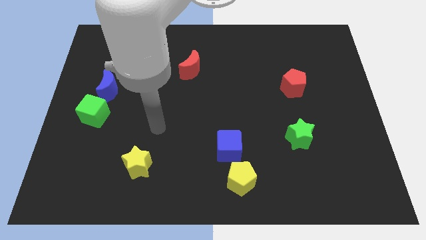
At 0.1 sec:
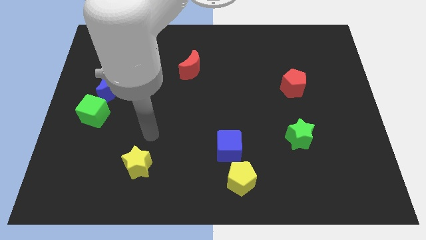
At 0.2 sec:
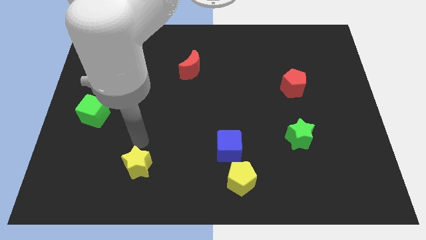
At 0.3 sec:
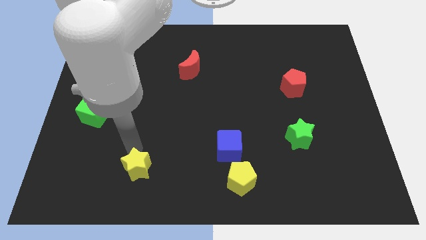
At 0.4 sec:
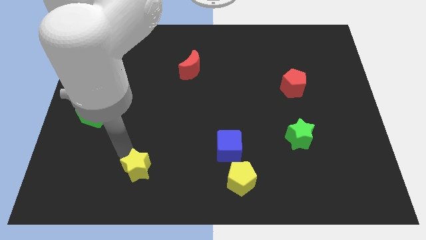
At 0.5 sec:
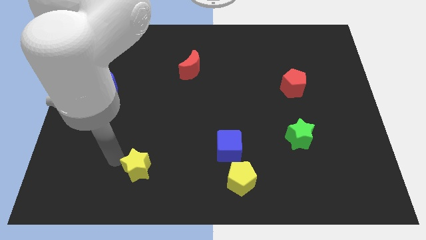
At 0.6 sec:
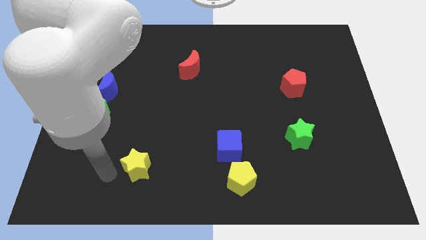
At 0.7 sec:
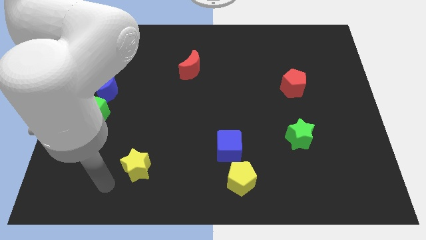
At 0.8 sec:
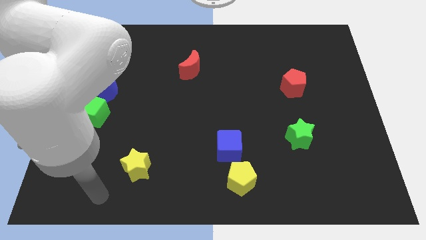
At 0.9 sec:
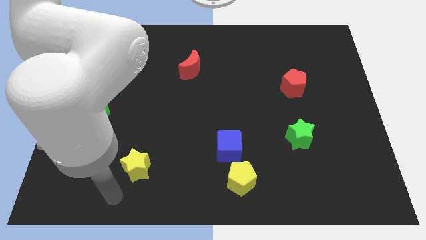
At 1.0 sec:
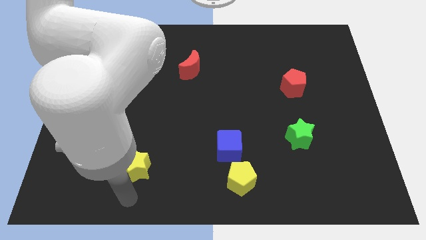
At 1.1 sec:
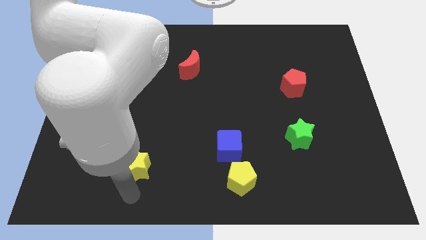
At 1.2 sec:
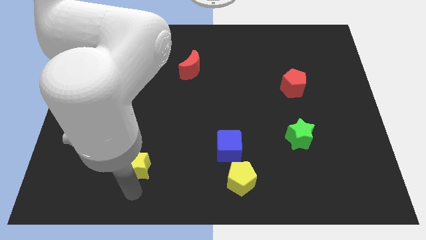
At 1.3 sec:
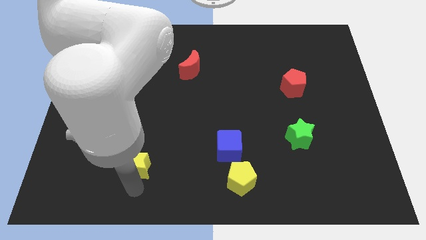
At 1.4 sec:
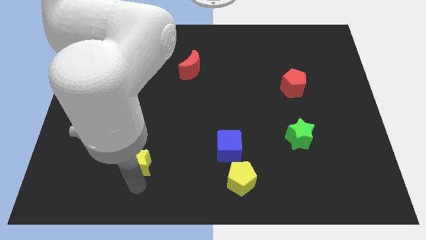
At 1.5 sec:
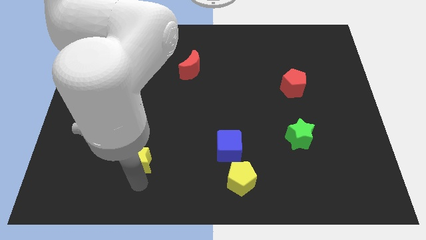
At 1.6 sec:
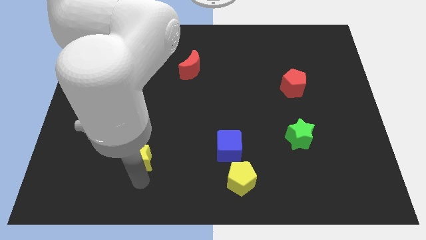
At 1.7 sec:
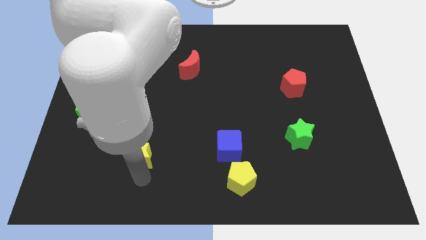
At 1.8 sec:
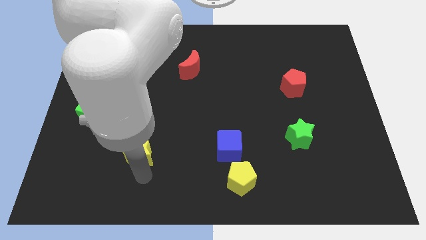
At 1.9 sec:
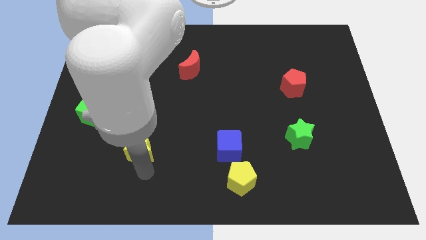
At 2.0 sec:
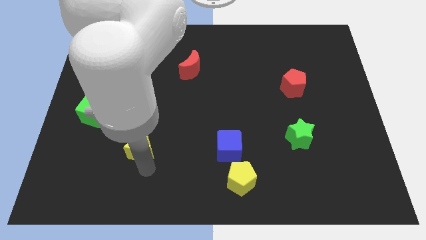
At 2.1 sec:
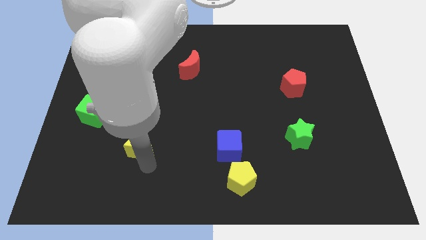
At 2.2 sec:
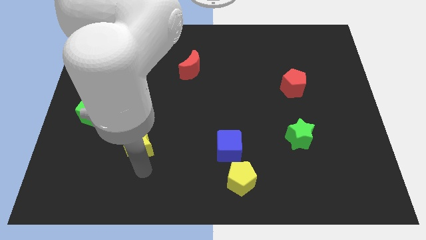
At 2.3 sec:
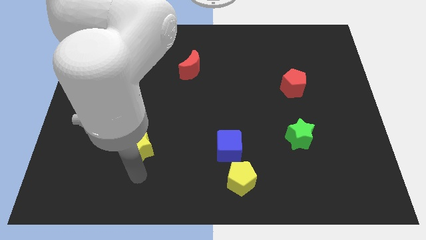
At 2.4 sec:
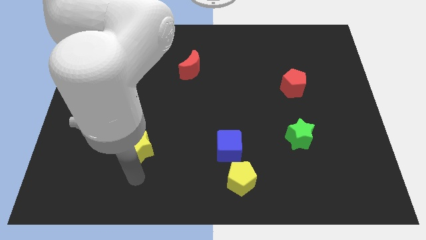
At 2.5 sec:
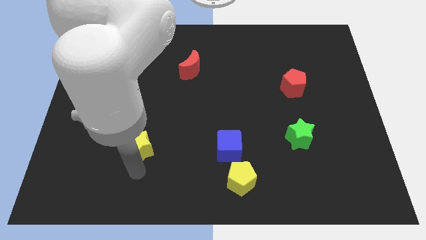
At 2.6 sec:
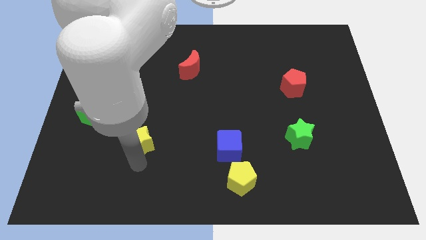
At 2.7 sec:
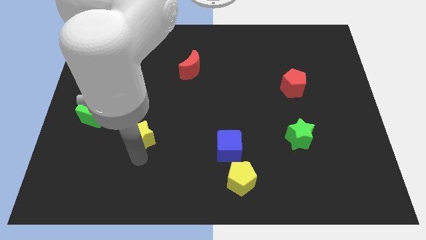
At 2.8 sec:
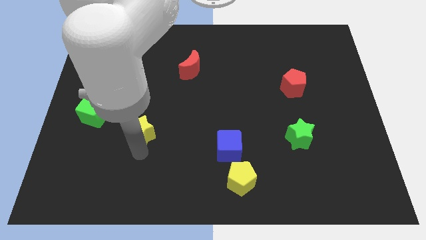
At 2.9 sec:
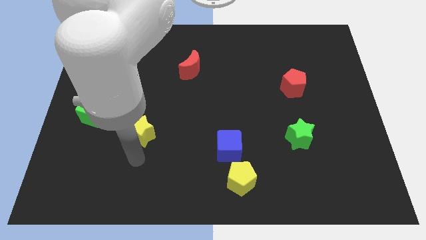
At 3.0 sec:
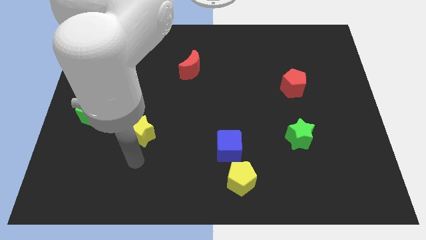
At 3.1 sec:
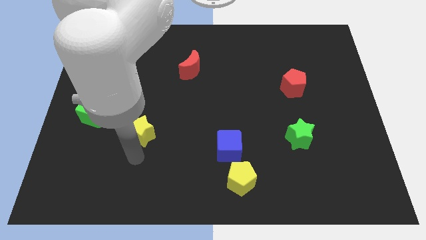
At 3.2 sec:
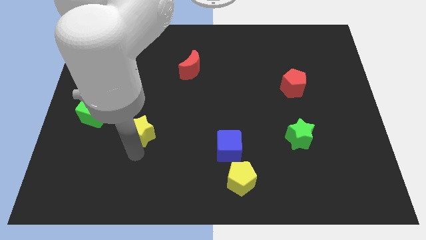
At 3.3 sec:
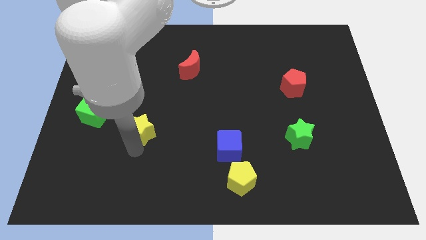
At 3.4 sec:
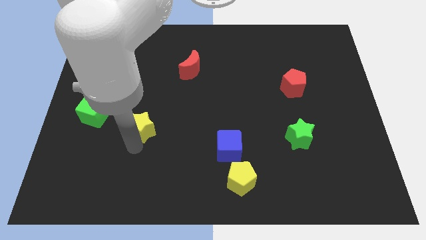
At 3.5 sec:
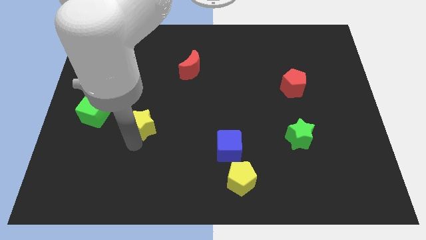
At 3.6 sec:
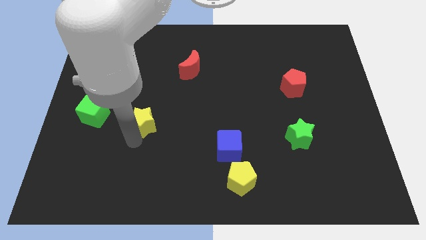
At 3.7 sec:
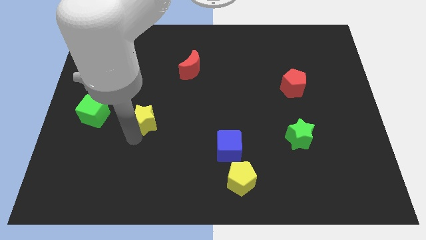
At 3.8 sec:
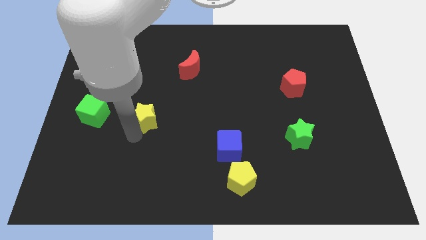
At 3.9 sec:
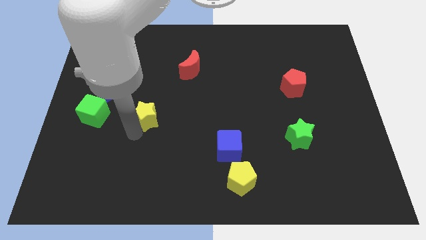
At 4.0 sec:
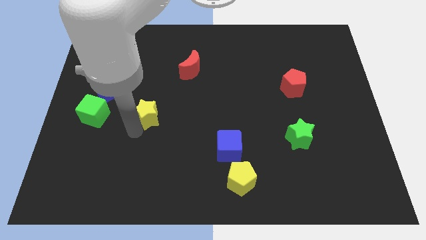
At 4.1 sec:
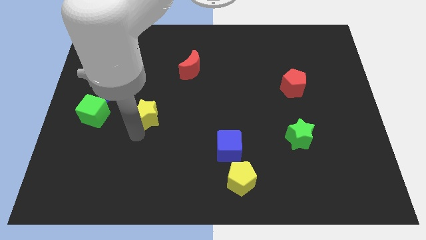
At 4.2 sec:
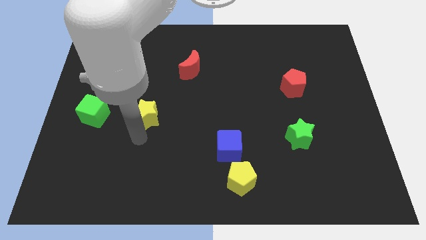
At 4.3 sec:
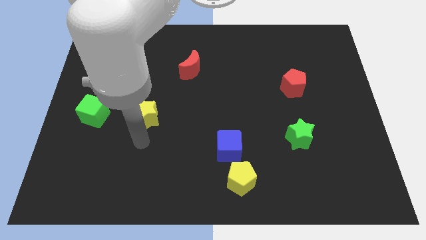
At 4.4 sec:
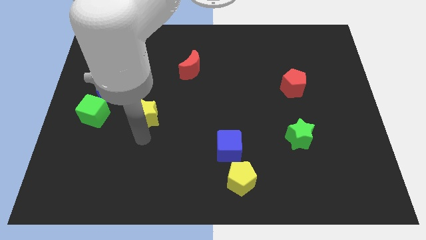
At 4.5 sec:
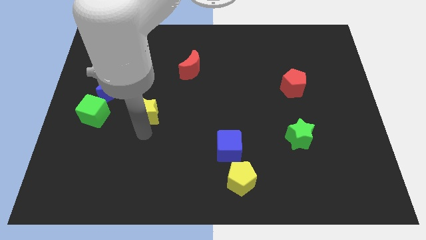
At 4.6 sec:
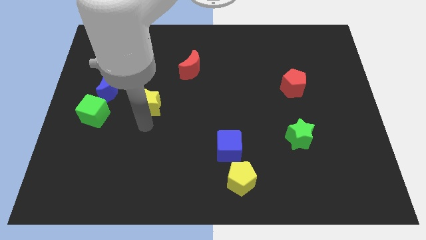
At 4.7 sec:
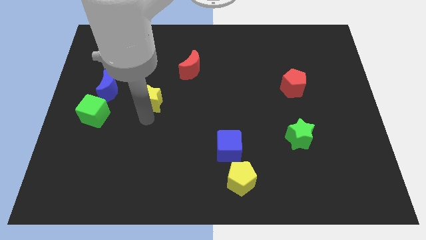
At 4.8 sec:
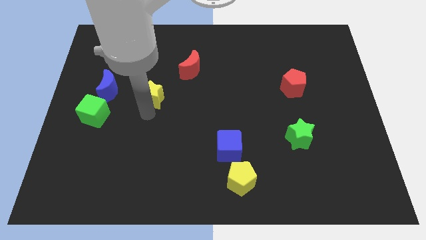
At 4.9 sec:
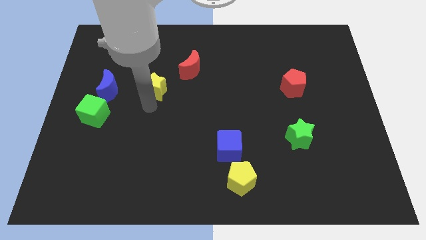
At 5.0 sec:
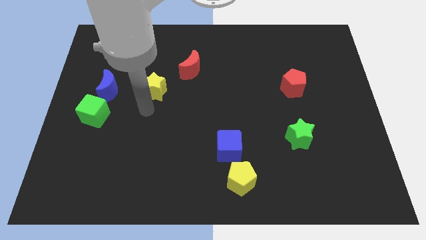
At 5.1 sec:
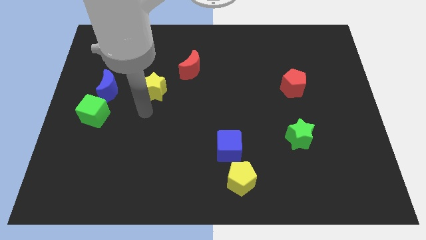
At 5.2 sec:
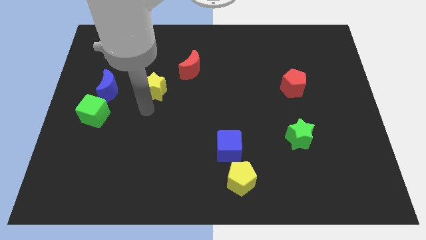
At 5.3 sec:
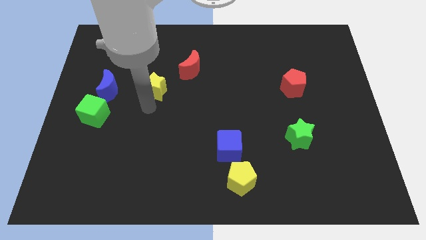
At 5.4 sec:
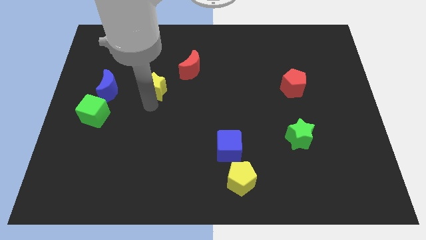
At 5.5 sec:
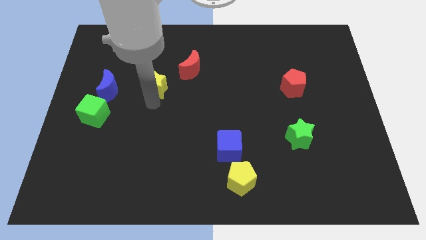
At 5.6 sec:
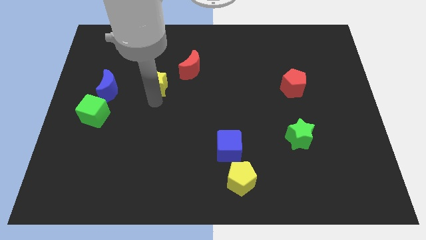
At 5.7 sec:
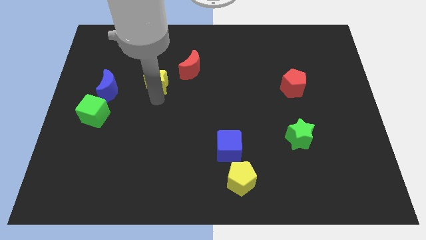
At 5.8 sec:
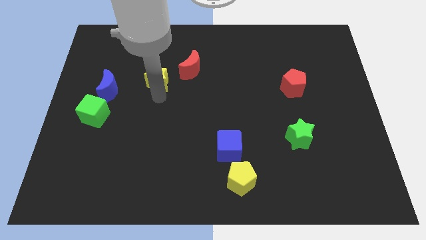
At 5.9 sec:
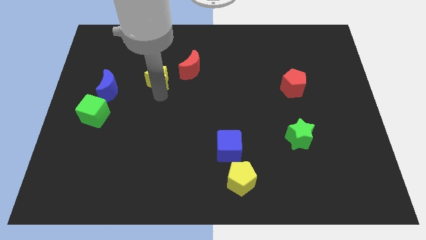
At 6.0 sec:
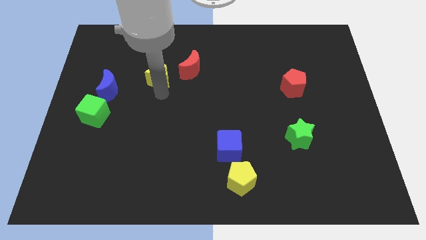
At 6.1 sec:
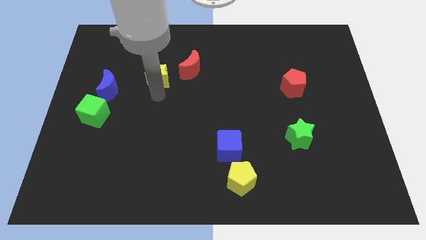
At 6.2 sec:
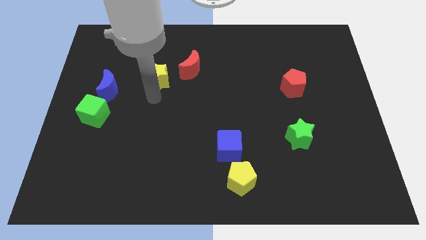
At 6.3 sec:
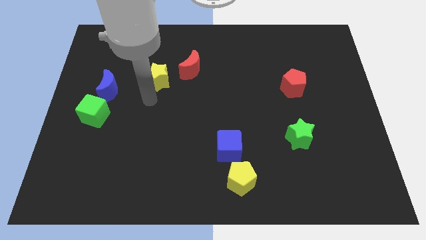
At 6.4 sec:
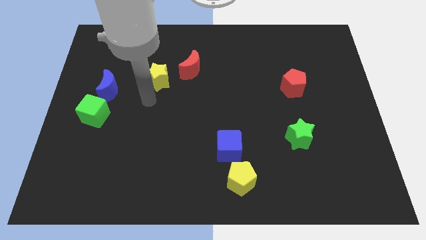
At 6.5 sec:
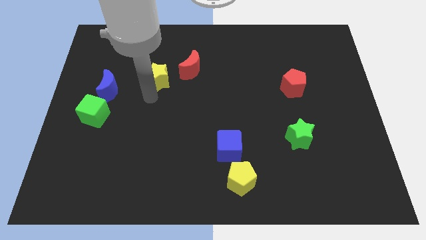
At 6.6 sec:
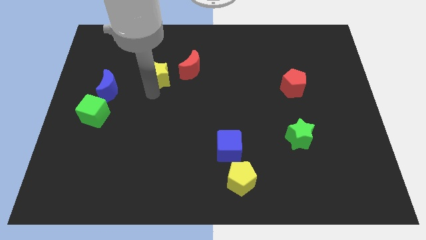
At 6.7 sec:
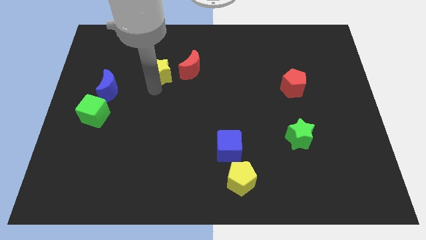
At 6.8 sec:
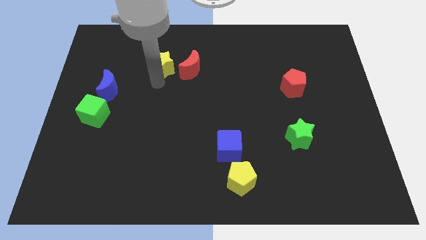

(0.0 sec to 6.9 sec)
push the yellow star diagonally up and to the left of the red moon

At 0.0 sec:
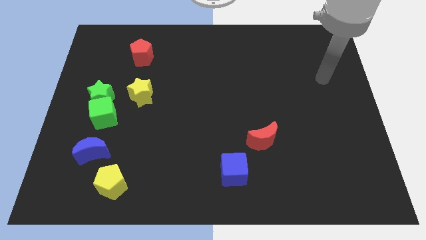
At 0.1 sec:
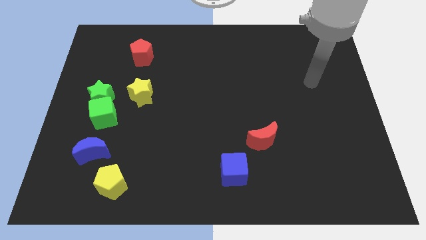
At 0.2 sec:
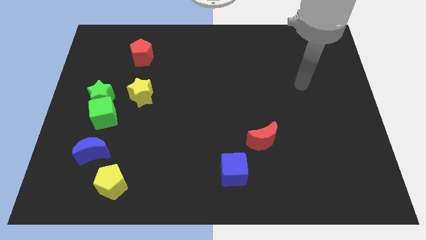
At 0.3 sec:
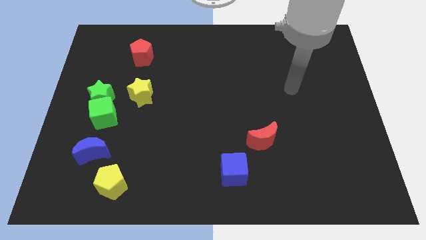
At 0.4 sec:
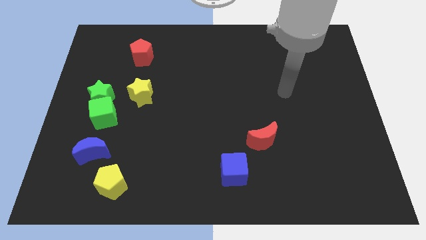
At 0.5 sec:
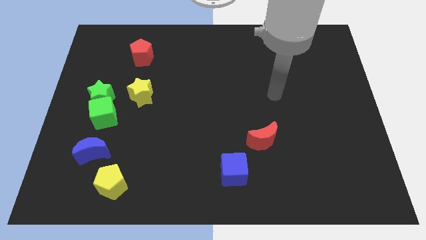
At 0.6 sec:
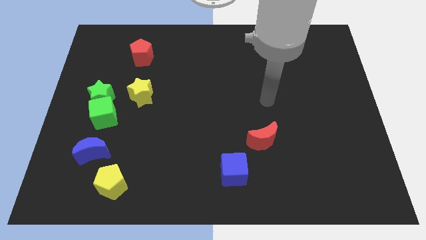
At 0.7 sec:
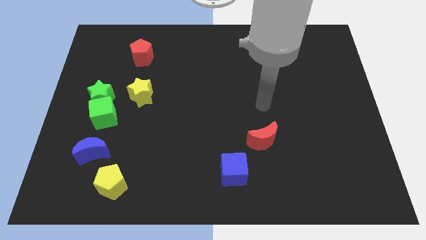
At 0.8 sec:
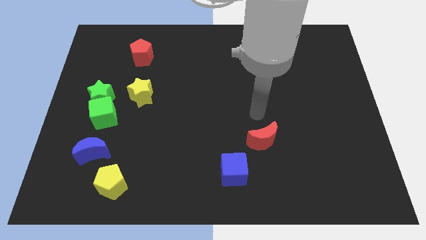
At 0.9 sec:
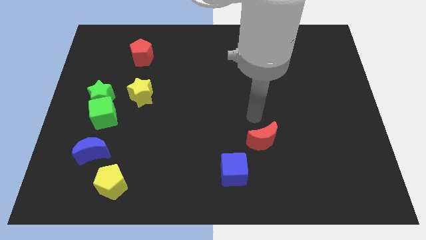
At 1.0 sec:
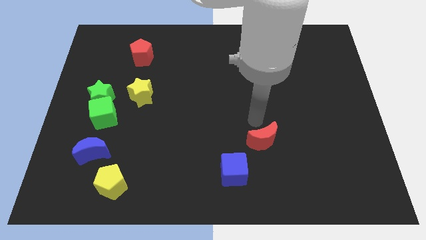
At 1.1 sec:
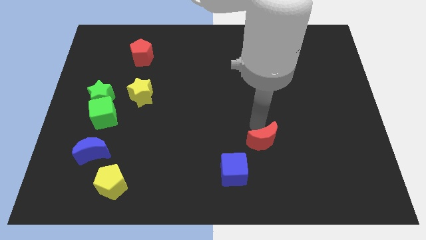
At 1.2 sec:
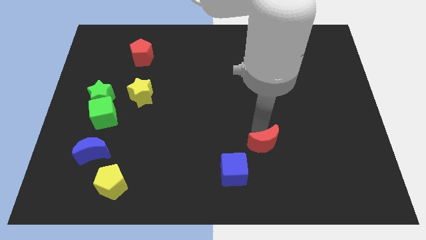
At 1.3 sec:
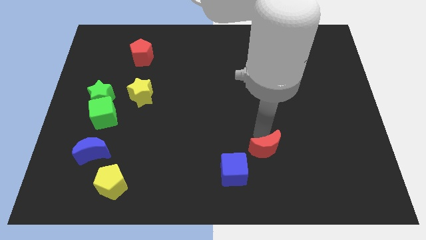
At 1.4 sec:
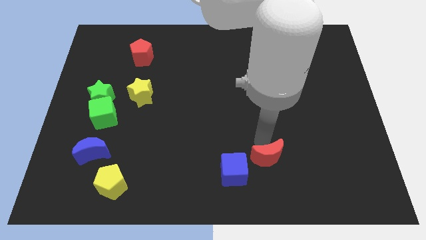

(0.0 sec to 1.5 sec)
push the red moon just right of the blue cube
